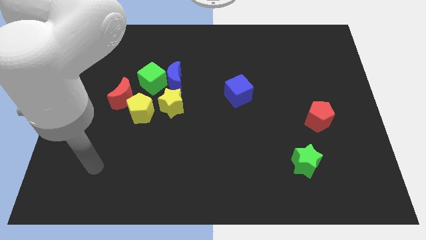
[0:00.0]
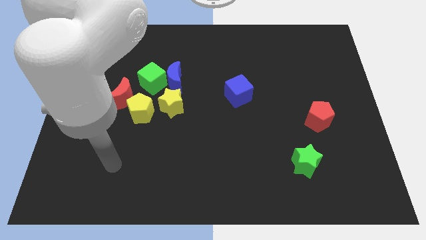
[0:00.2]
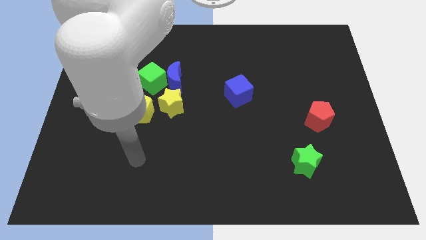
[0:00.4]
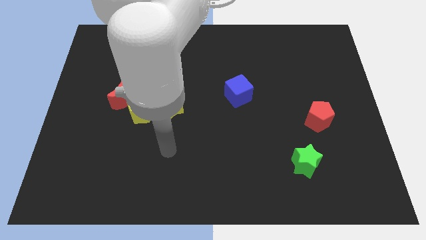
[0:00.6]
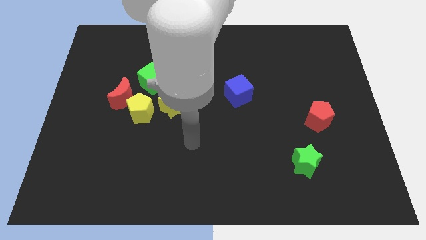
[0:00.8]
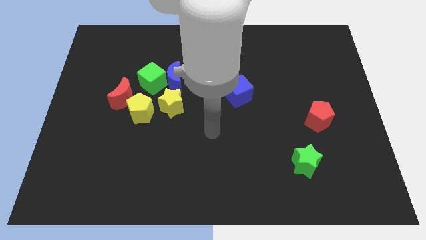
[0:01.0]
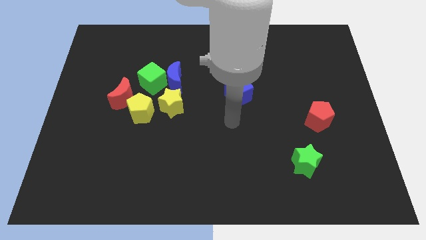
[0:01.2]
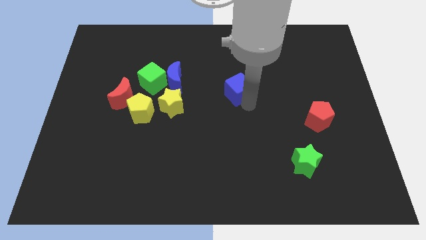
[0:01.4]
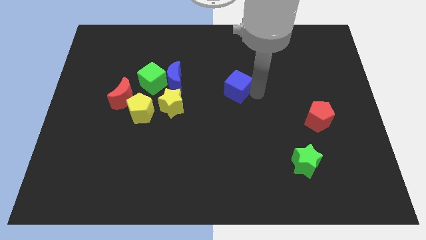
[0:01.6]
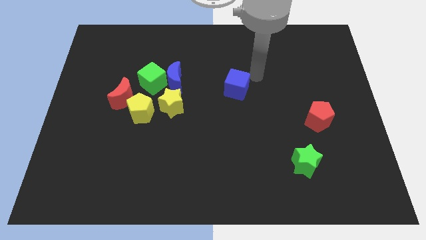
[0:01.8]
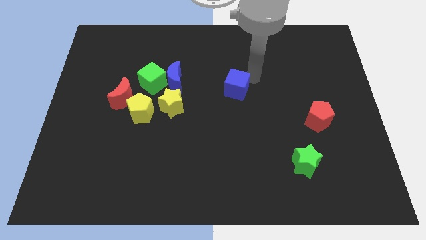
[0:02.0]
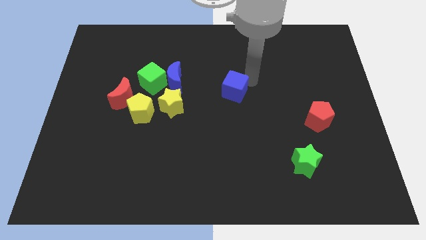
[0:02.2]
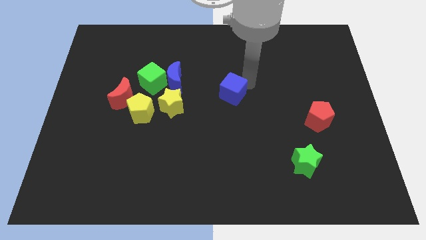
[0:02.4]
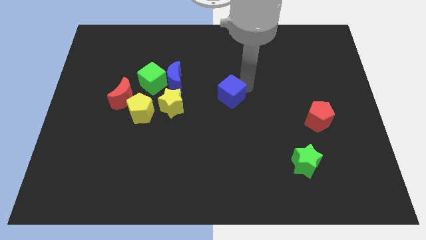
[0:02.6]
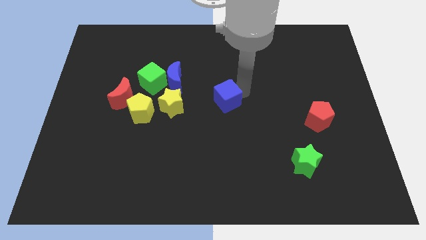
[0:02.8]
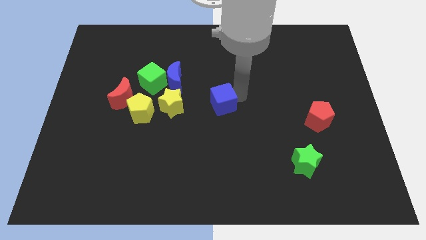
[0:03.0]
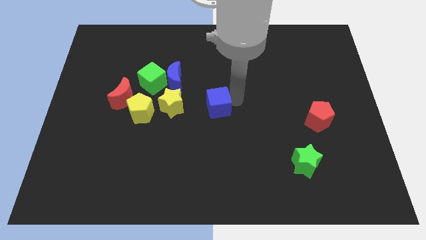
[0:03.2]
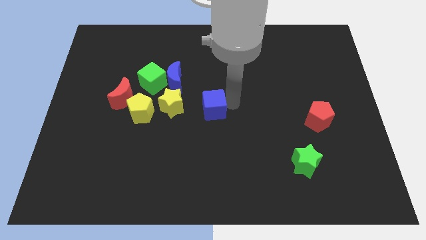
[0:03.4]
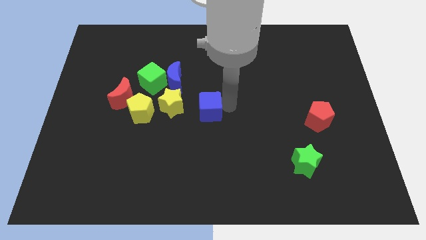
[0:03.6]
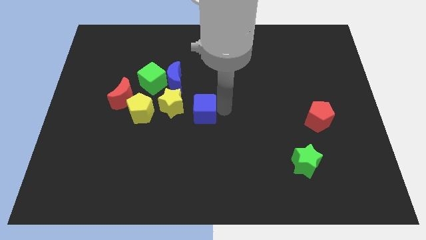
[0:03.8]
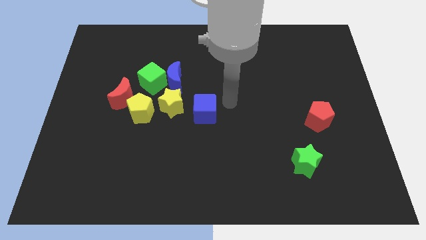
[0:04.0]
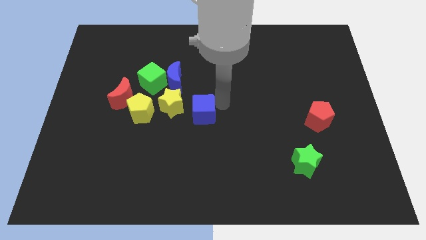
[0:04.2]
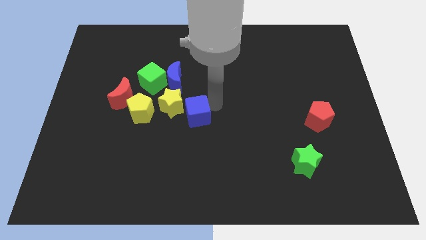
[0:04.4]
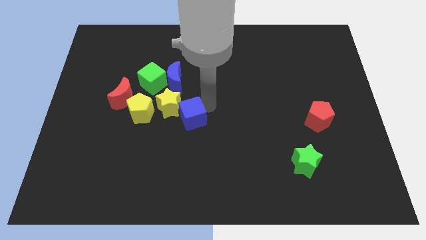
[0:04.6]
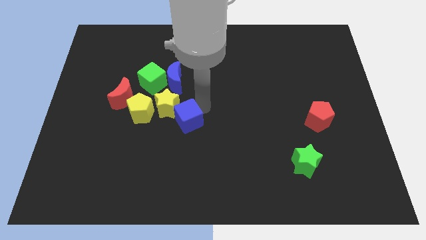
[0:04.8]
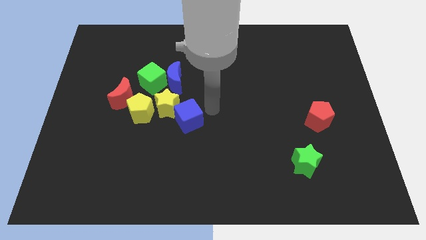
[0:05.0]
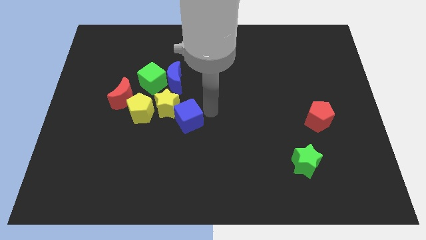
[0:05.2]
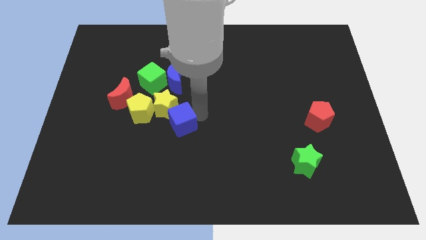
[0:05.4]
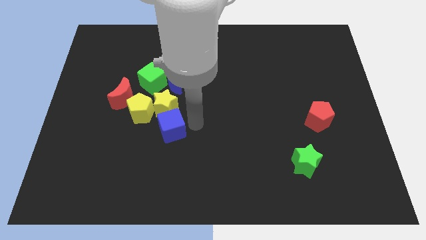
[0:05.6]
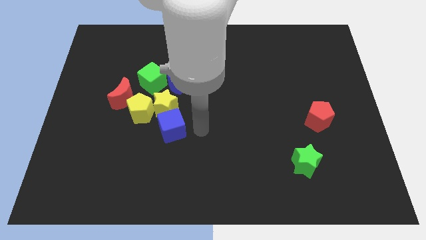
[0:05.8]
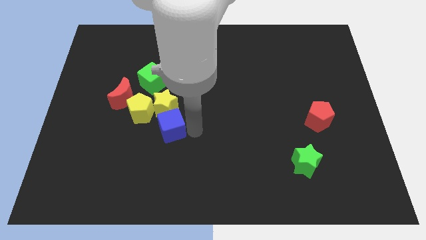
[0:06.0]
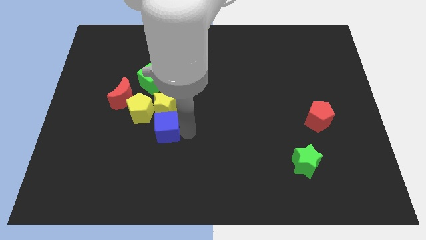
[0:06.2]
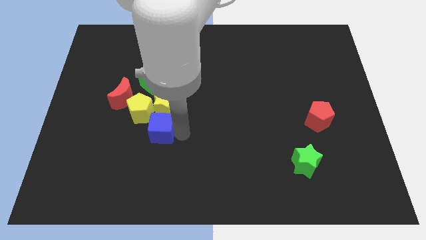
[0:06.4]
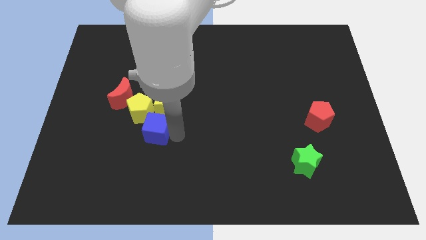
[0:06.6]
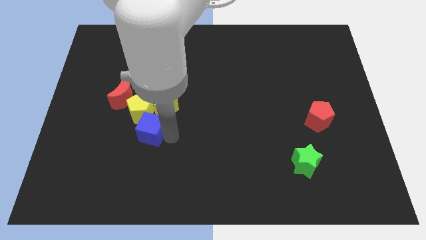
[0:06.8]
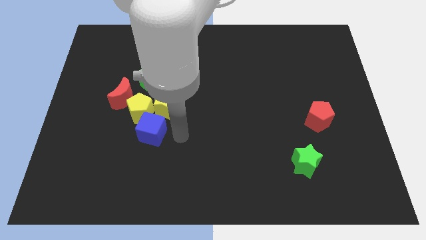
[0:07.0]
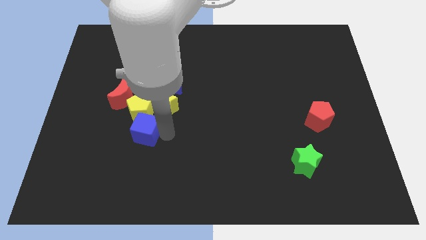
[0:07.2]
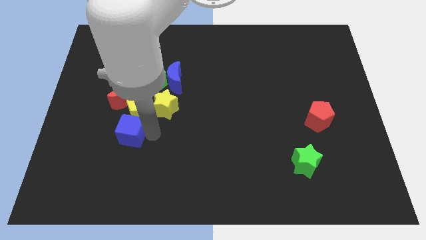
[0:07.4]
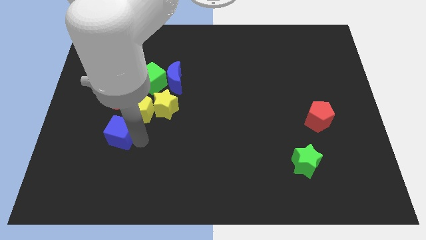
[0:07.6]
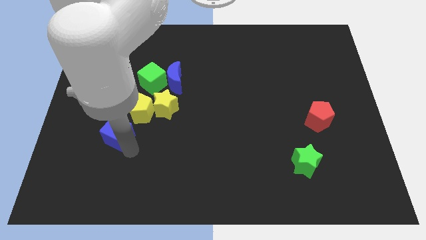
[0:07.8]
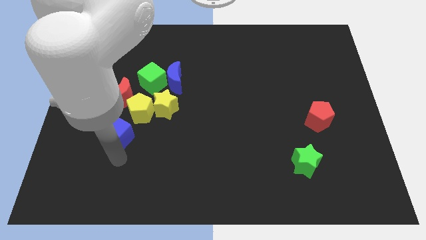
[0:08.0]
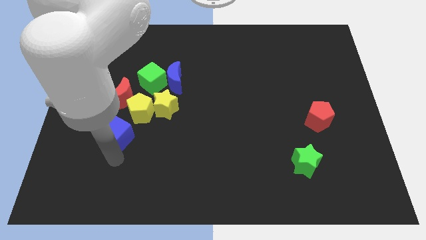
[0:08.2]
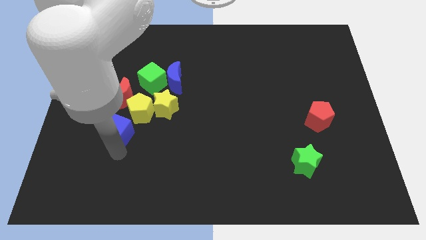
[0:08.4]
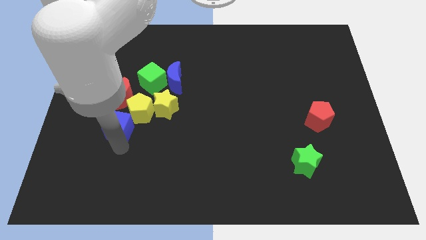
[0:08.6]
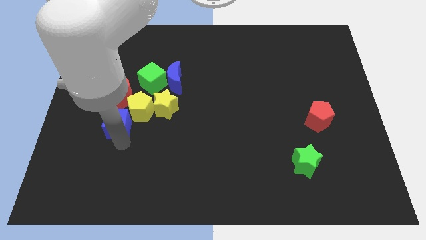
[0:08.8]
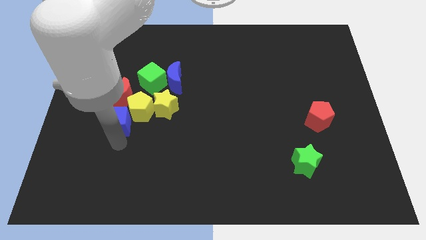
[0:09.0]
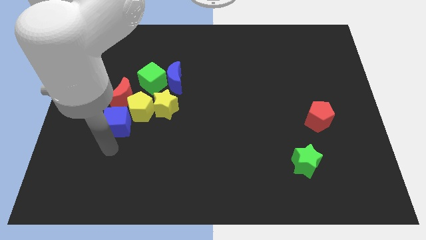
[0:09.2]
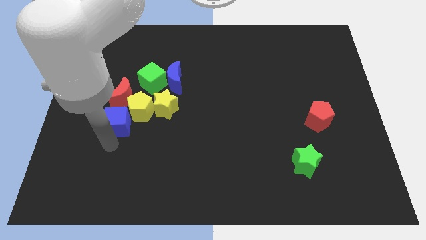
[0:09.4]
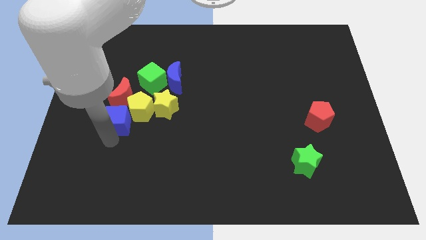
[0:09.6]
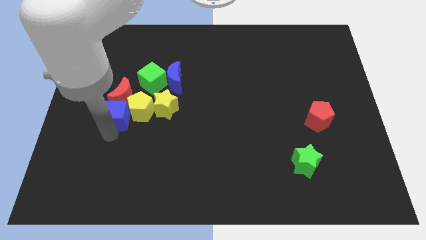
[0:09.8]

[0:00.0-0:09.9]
move the blue cube close to the red moon

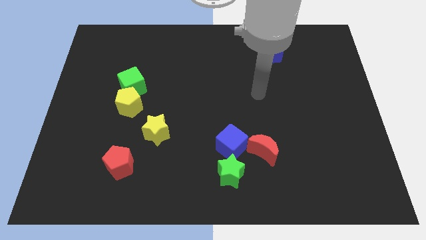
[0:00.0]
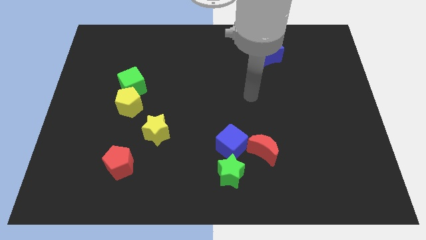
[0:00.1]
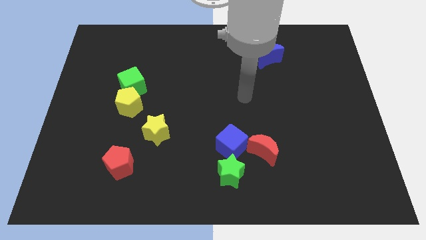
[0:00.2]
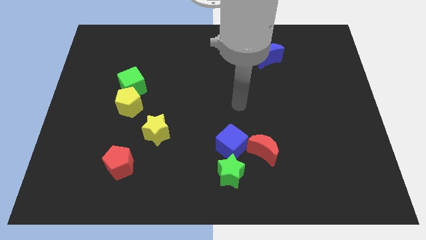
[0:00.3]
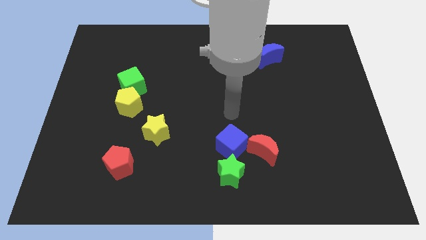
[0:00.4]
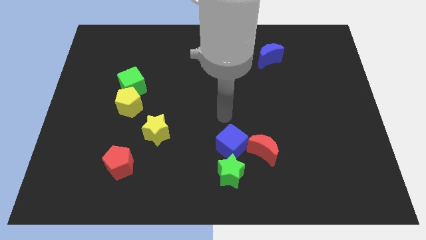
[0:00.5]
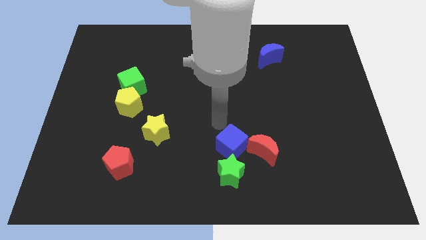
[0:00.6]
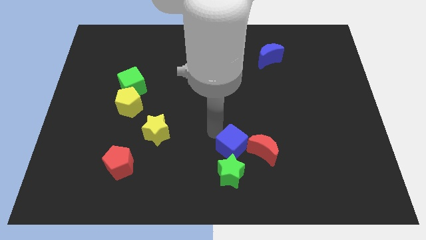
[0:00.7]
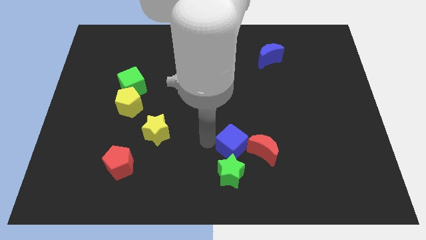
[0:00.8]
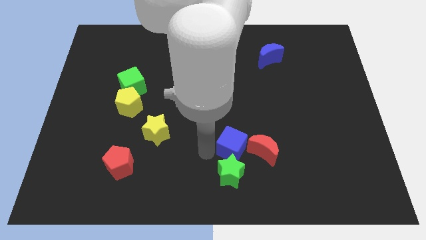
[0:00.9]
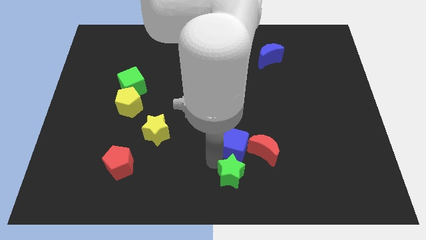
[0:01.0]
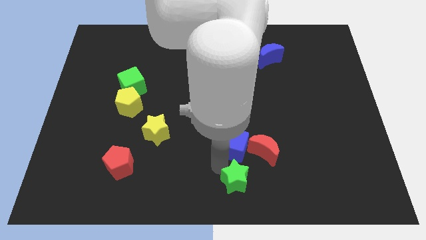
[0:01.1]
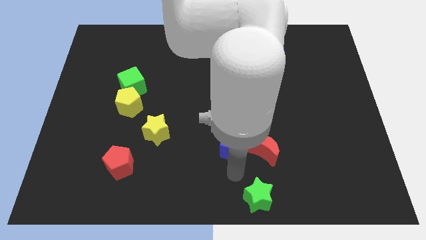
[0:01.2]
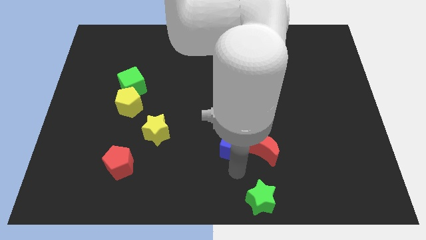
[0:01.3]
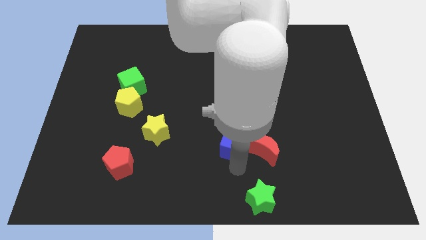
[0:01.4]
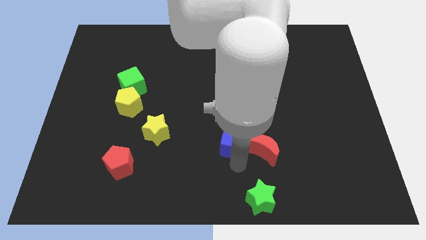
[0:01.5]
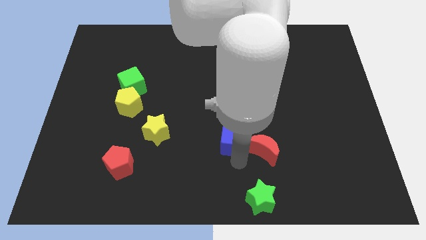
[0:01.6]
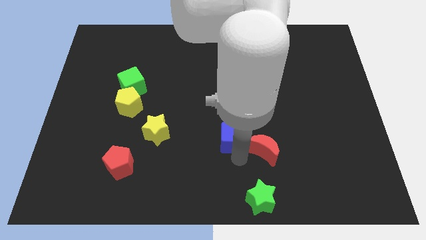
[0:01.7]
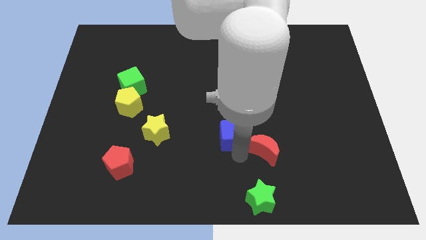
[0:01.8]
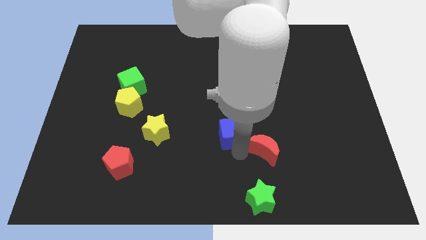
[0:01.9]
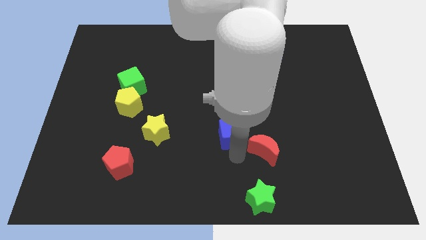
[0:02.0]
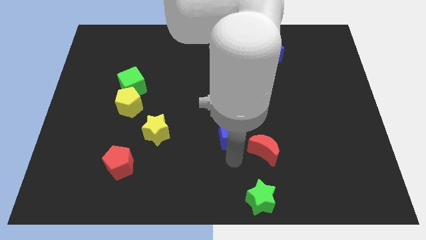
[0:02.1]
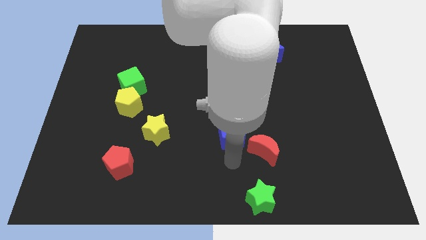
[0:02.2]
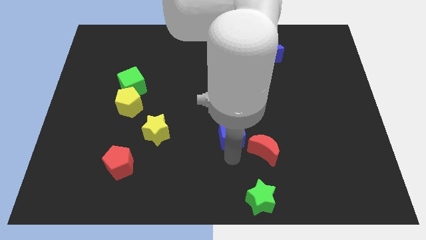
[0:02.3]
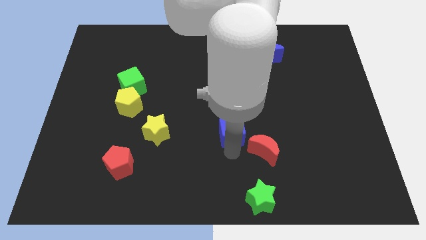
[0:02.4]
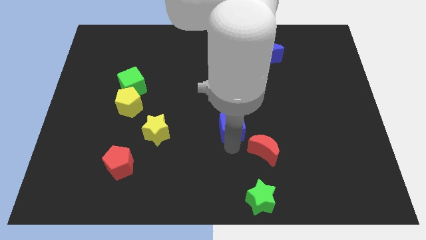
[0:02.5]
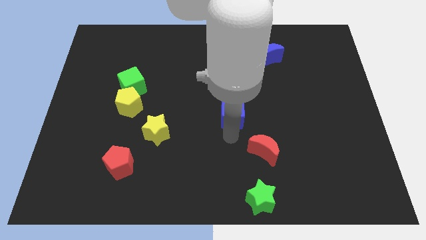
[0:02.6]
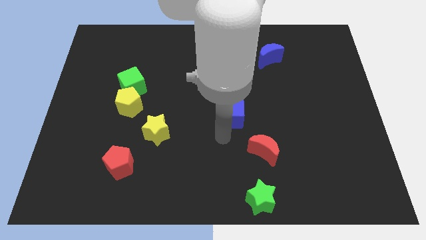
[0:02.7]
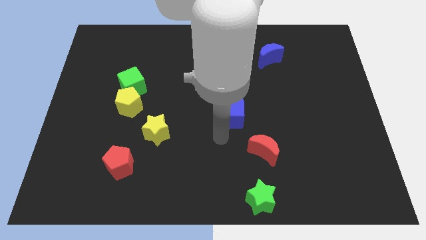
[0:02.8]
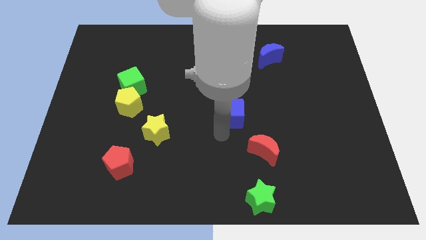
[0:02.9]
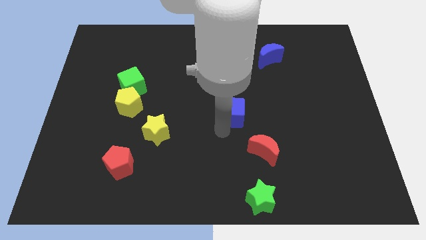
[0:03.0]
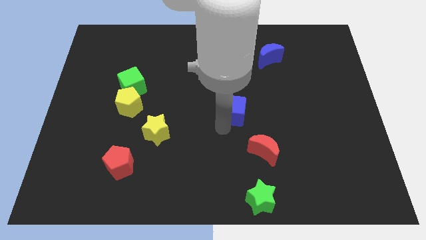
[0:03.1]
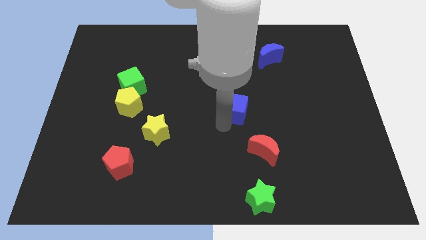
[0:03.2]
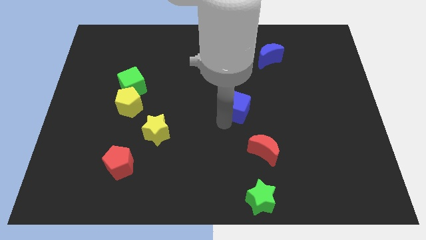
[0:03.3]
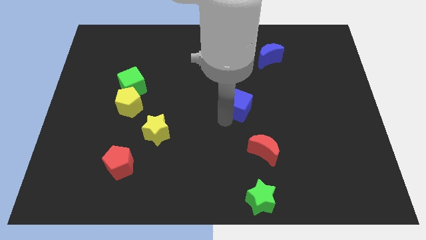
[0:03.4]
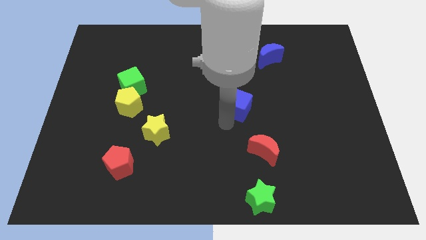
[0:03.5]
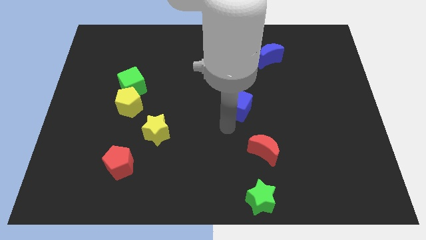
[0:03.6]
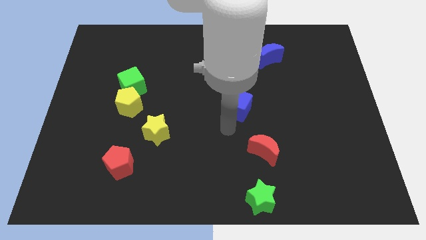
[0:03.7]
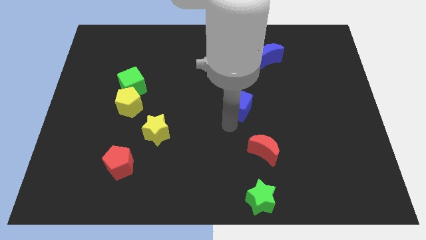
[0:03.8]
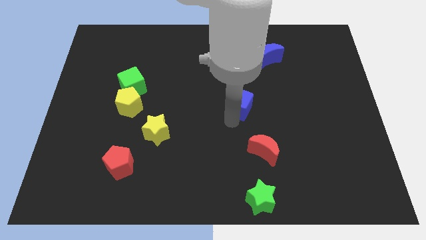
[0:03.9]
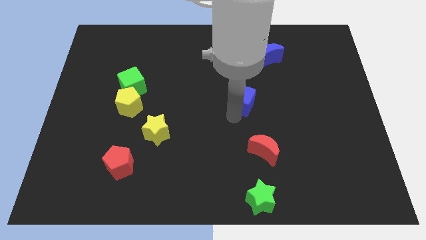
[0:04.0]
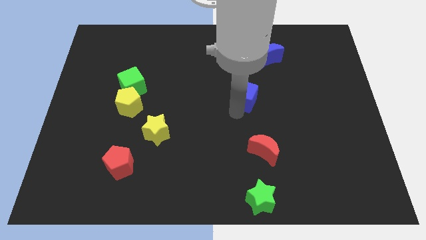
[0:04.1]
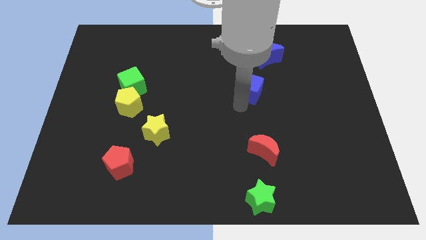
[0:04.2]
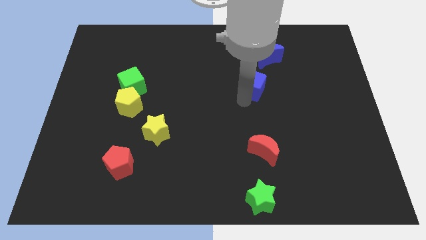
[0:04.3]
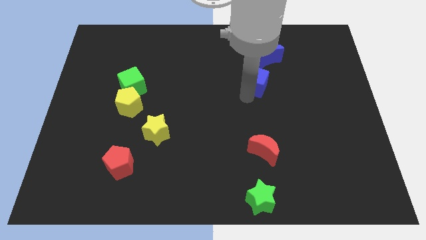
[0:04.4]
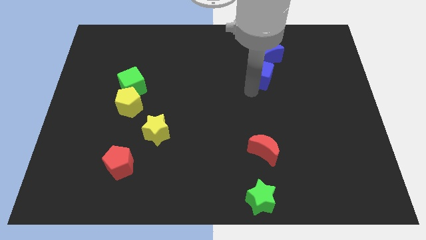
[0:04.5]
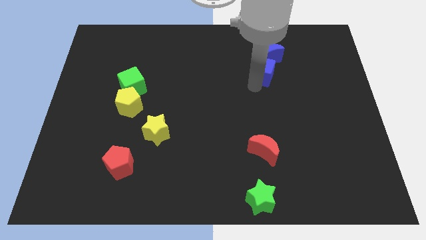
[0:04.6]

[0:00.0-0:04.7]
move the blue cube close to the blue moon
